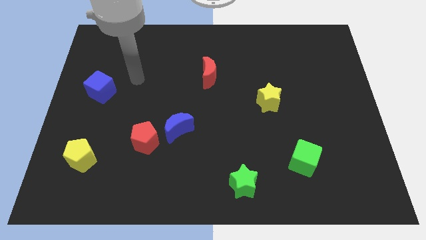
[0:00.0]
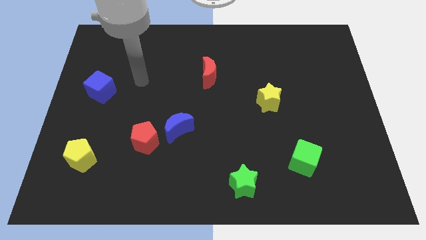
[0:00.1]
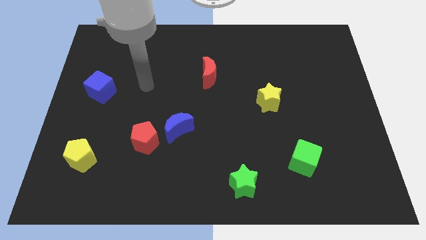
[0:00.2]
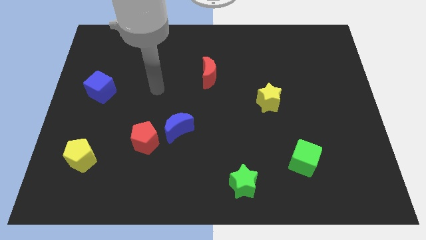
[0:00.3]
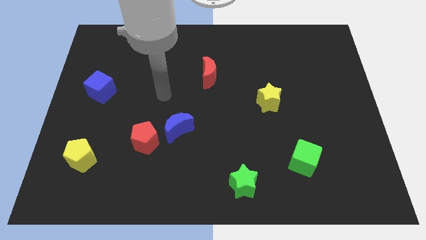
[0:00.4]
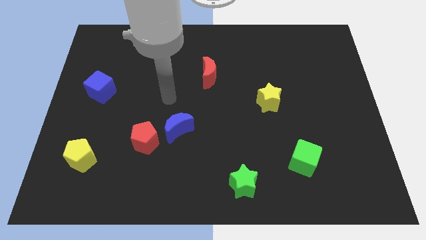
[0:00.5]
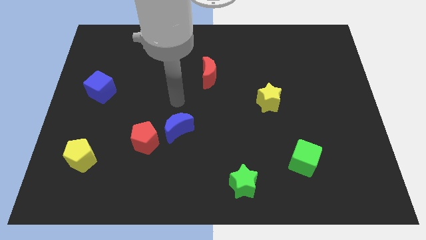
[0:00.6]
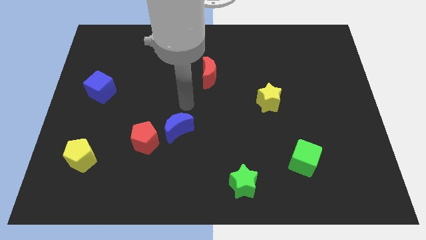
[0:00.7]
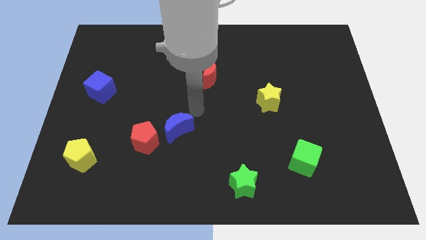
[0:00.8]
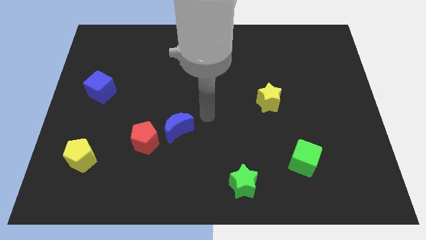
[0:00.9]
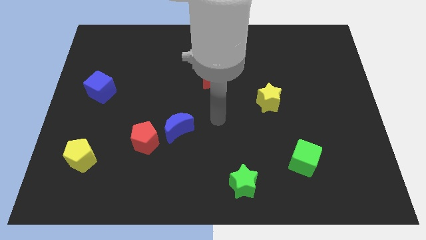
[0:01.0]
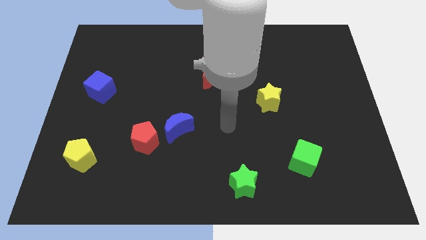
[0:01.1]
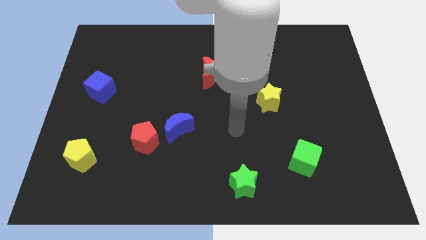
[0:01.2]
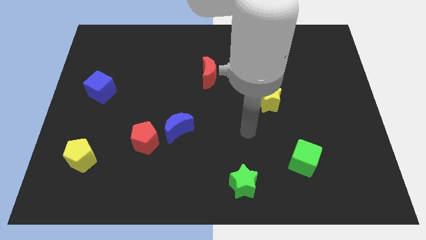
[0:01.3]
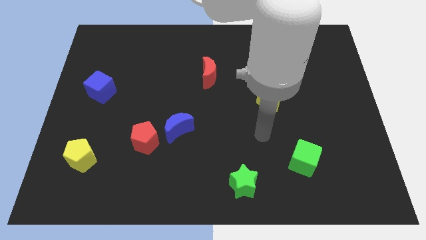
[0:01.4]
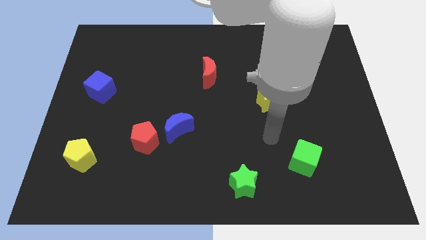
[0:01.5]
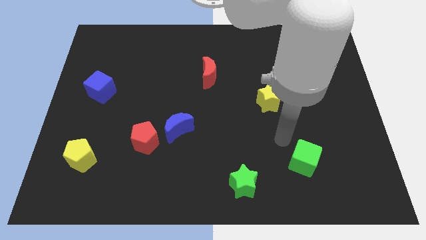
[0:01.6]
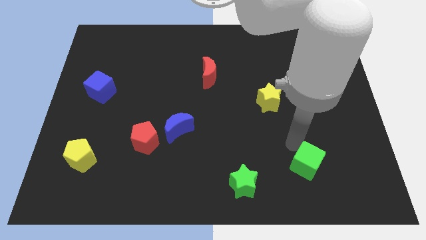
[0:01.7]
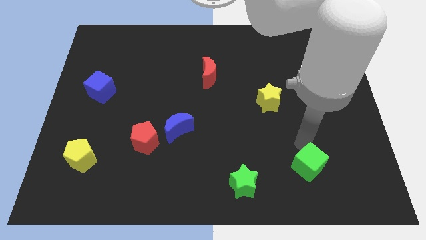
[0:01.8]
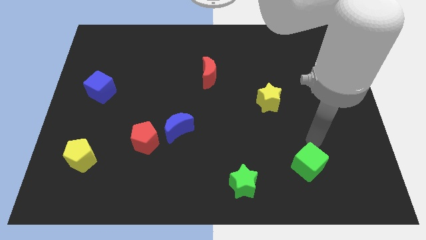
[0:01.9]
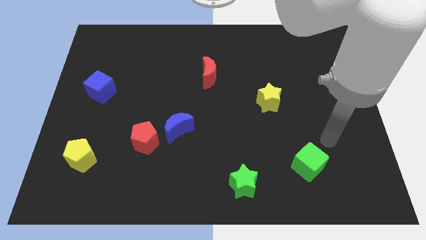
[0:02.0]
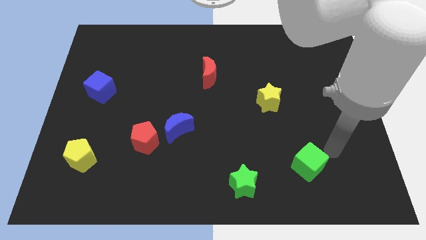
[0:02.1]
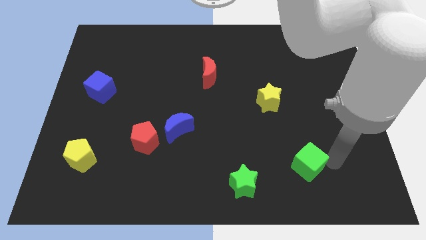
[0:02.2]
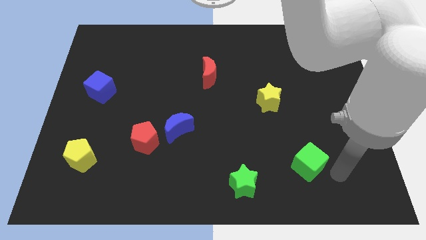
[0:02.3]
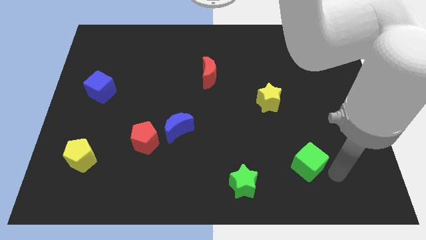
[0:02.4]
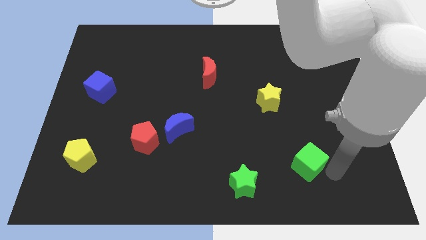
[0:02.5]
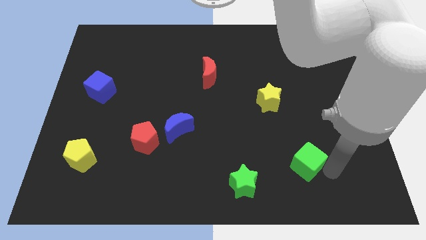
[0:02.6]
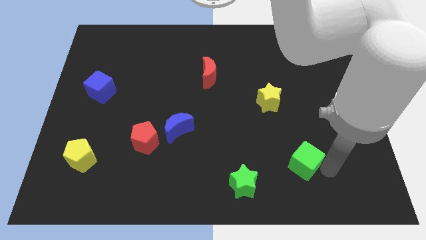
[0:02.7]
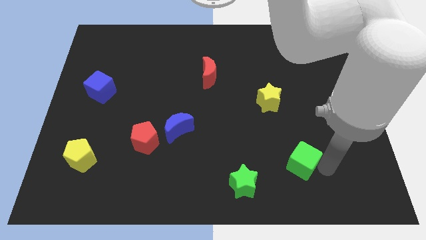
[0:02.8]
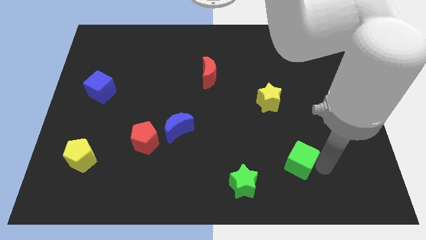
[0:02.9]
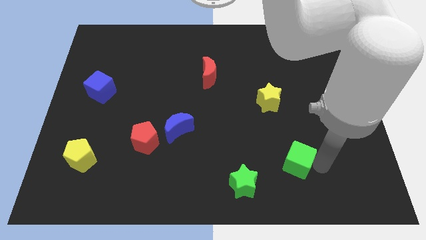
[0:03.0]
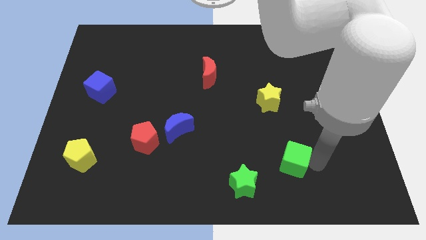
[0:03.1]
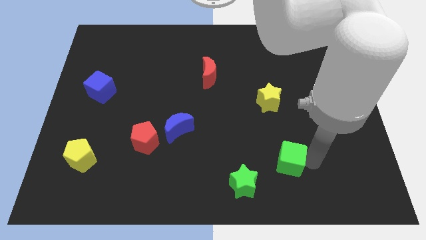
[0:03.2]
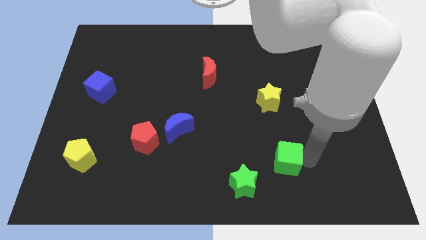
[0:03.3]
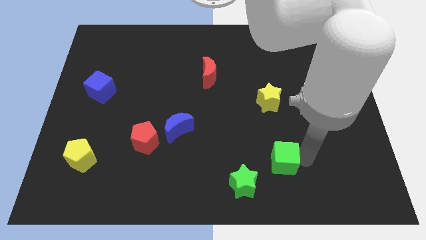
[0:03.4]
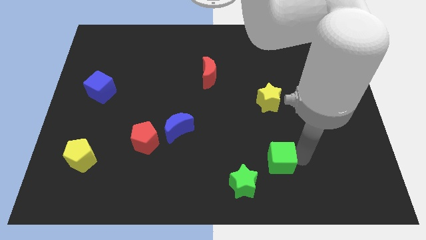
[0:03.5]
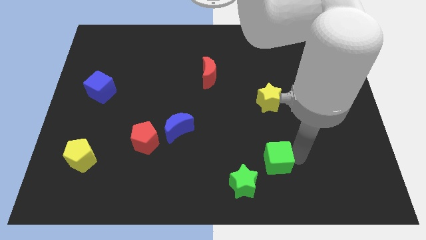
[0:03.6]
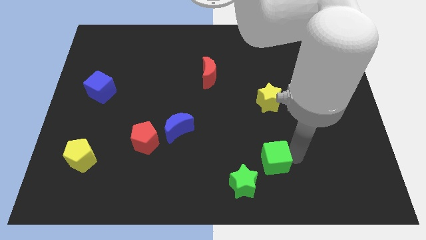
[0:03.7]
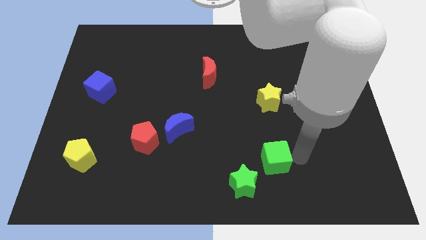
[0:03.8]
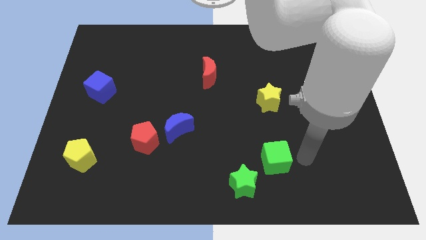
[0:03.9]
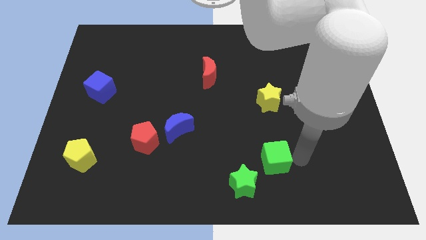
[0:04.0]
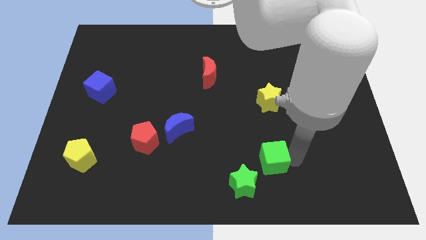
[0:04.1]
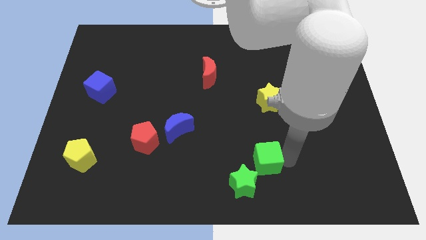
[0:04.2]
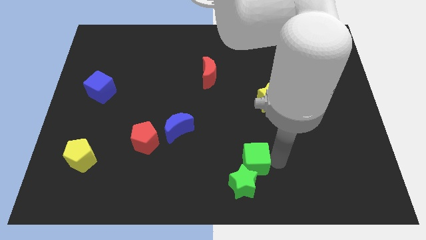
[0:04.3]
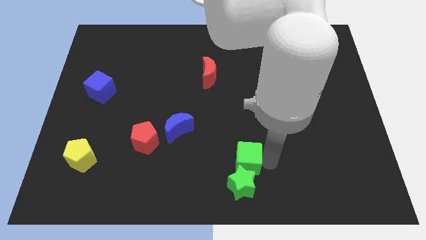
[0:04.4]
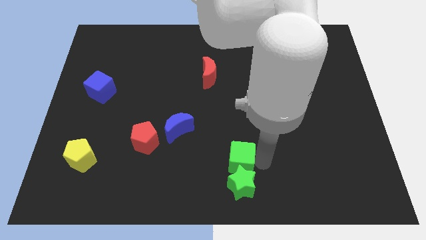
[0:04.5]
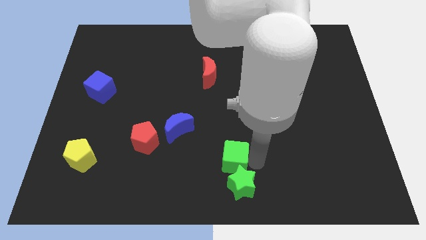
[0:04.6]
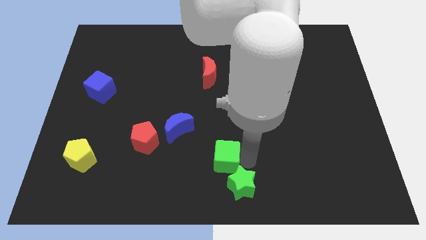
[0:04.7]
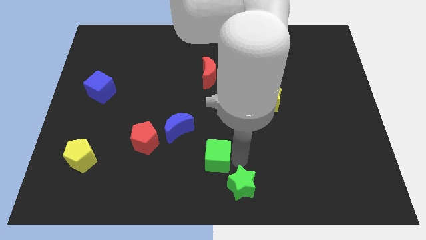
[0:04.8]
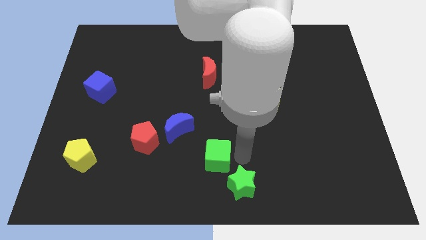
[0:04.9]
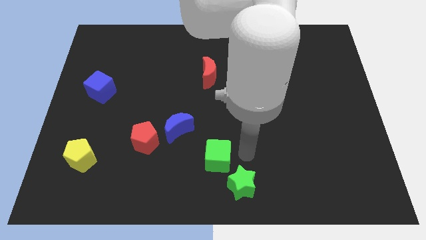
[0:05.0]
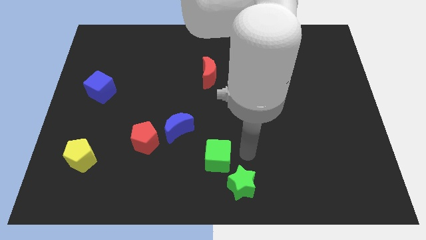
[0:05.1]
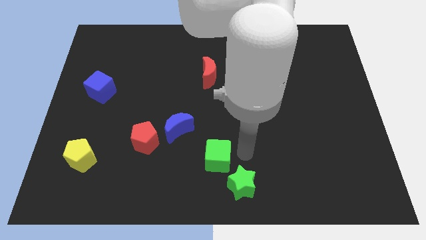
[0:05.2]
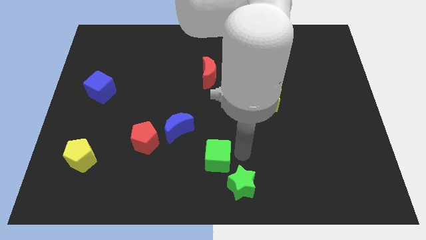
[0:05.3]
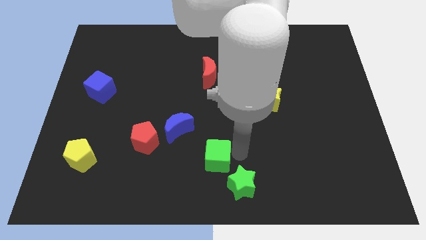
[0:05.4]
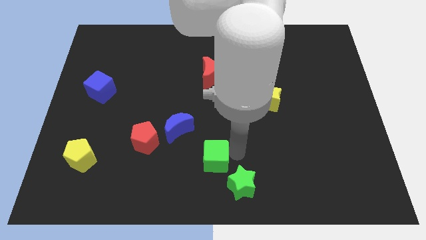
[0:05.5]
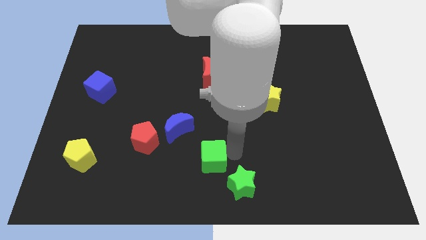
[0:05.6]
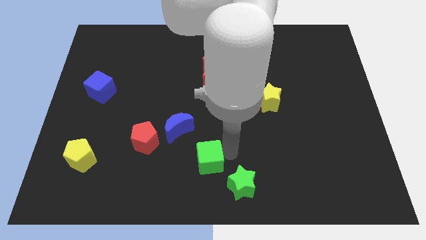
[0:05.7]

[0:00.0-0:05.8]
push the green cube to the left

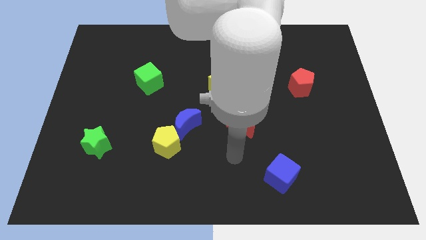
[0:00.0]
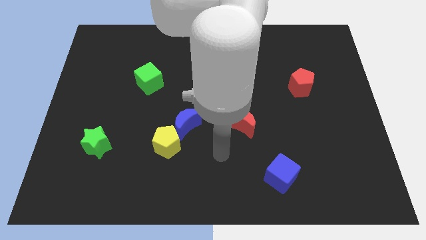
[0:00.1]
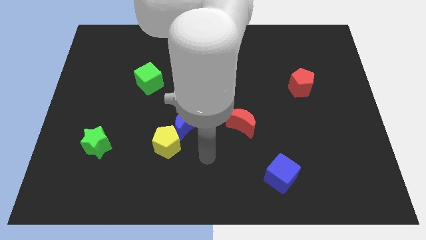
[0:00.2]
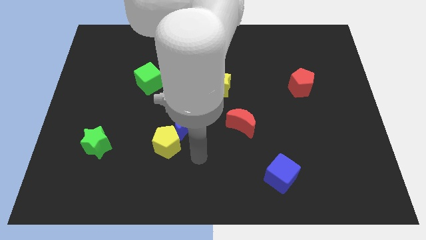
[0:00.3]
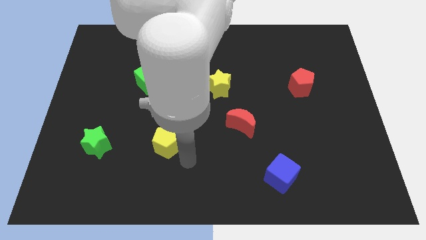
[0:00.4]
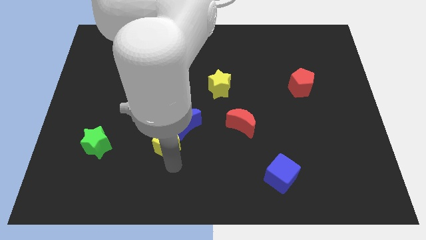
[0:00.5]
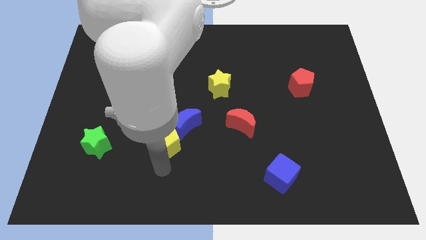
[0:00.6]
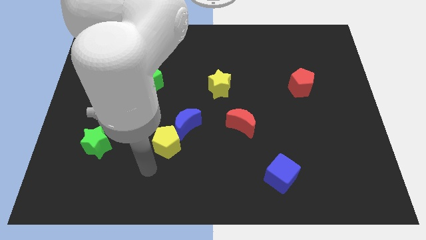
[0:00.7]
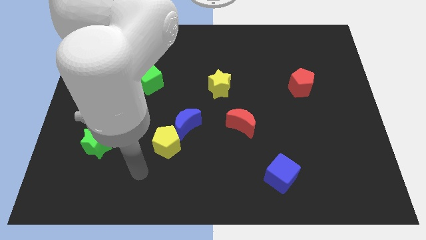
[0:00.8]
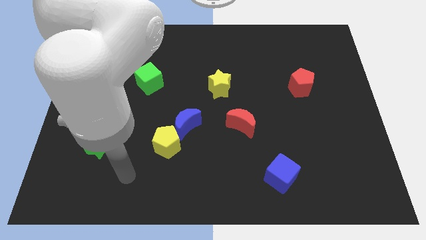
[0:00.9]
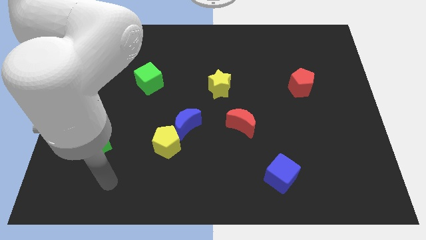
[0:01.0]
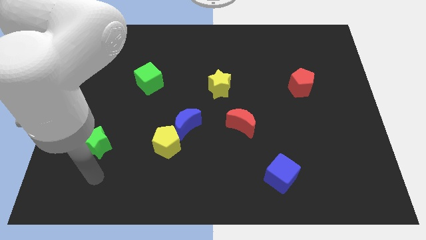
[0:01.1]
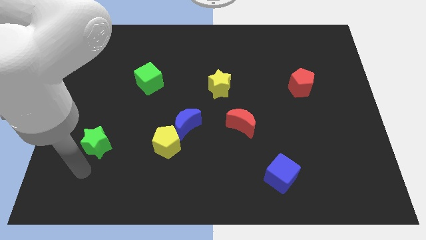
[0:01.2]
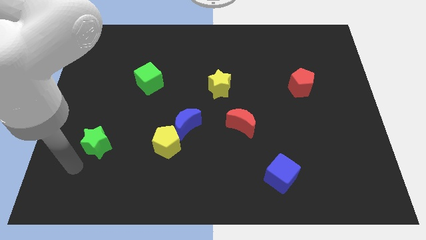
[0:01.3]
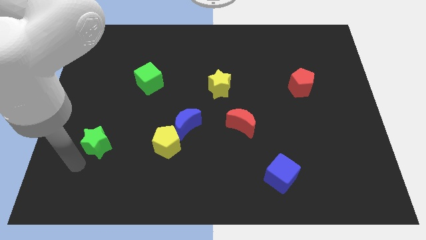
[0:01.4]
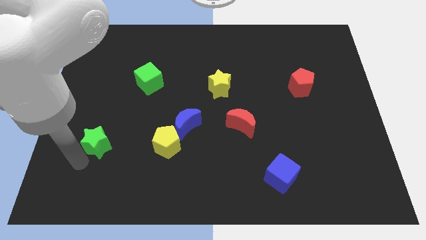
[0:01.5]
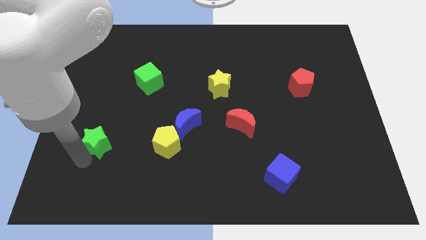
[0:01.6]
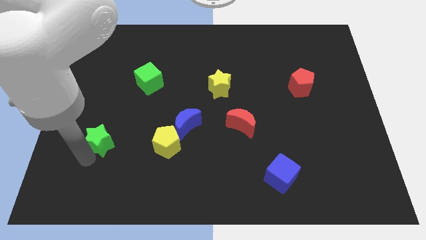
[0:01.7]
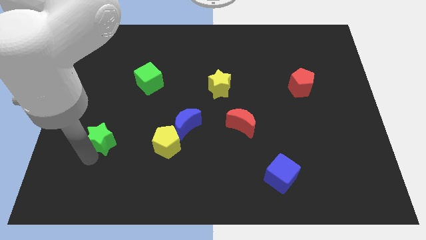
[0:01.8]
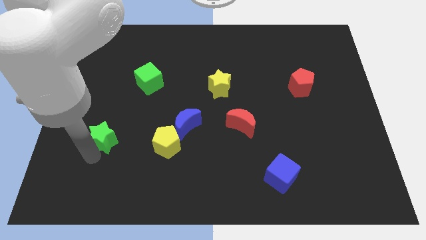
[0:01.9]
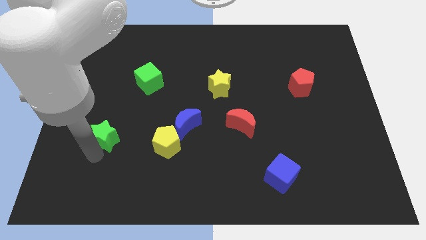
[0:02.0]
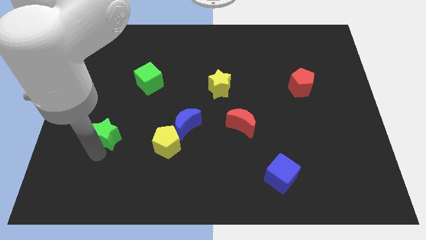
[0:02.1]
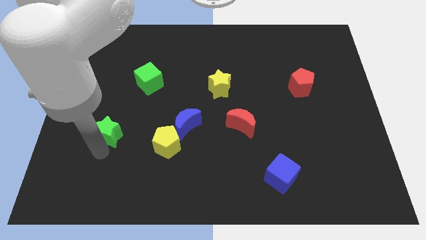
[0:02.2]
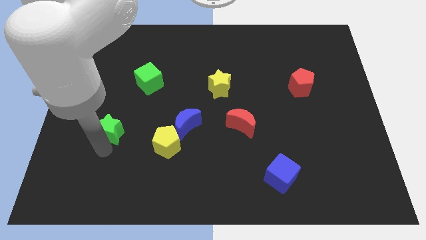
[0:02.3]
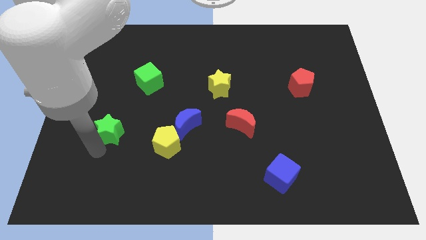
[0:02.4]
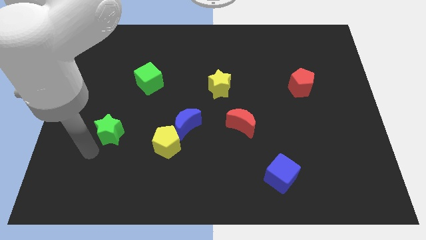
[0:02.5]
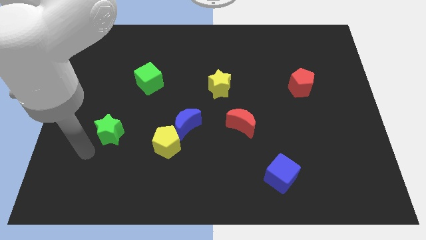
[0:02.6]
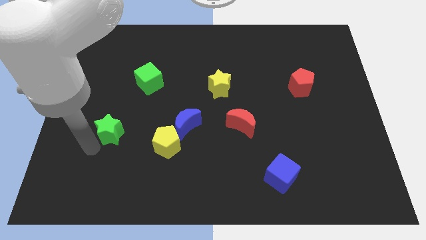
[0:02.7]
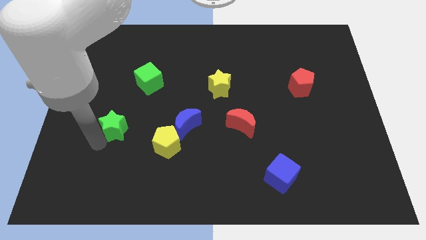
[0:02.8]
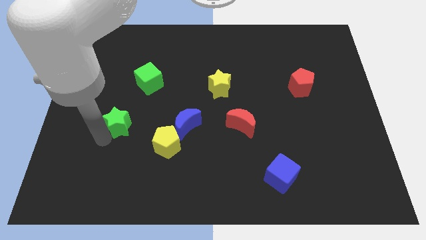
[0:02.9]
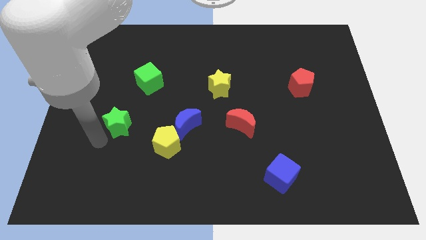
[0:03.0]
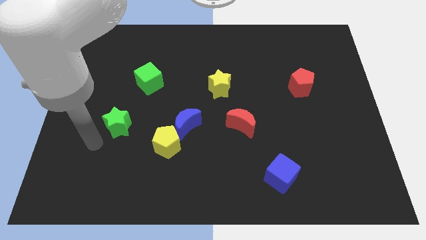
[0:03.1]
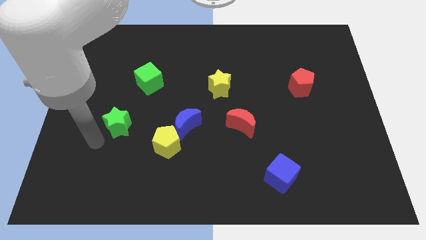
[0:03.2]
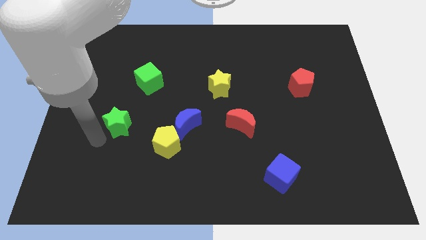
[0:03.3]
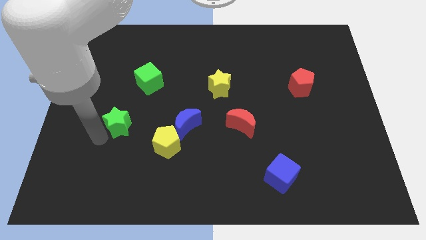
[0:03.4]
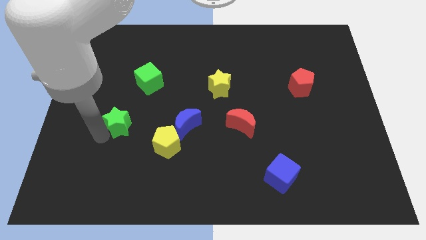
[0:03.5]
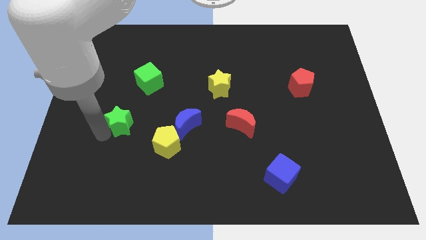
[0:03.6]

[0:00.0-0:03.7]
slightly move the green star up and to the right
